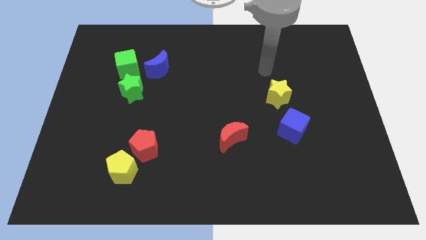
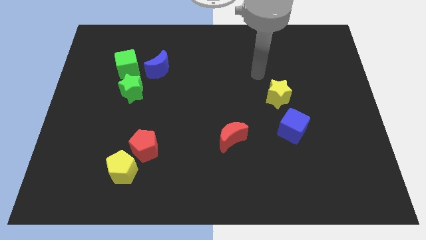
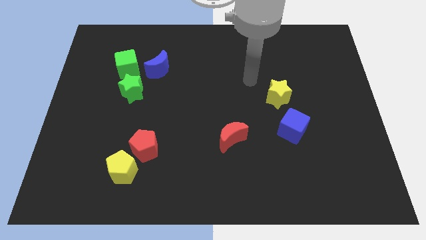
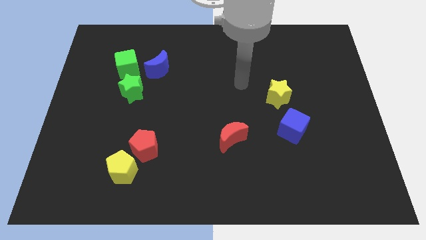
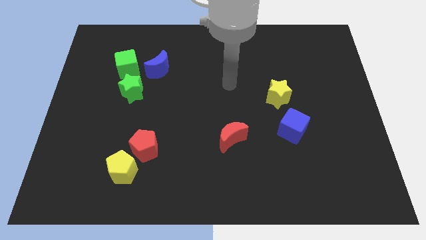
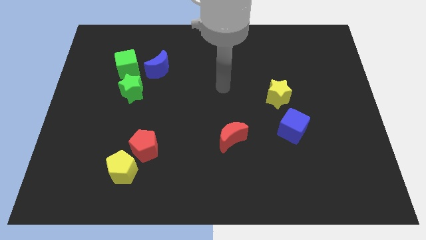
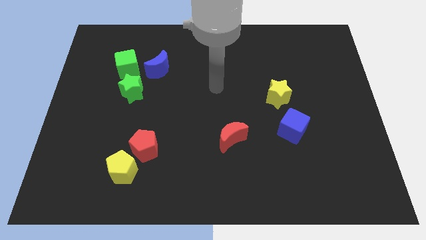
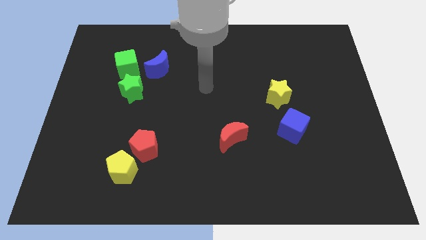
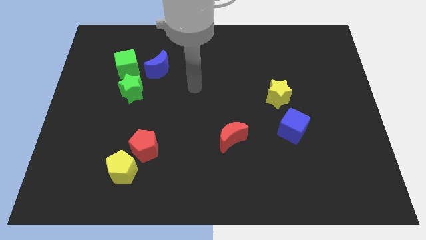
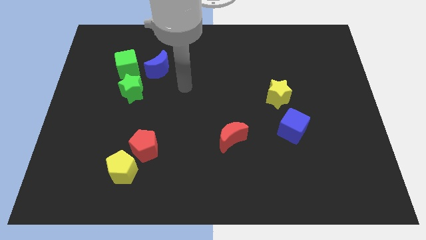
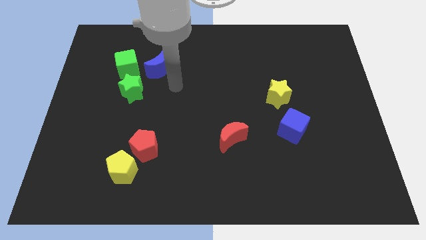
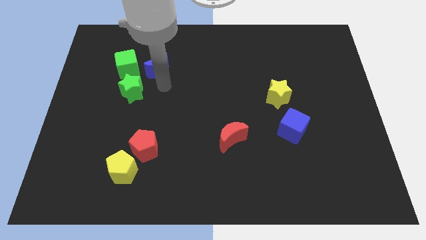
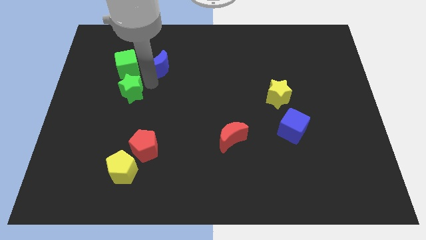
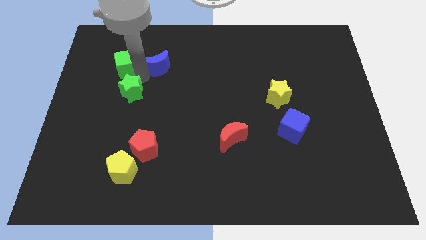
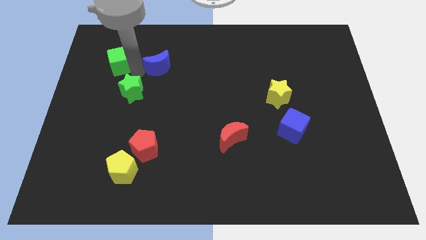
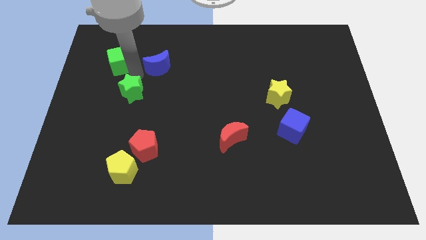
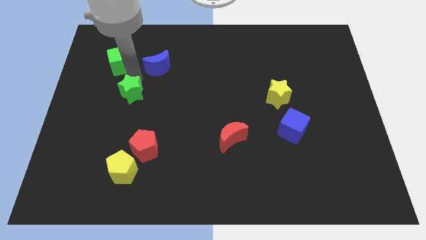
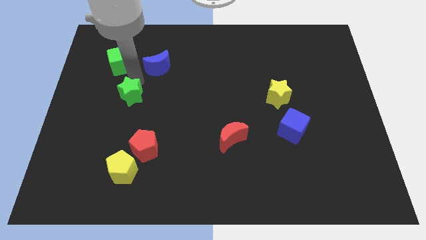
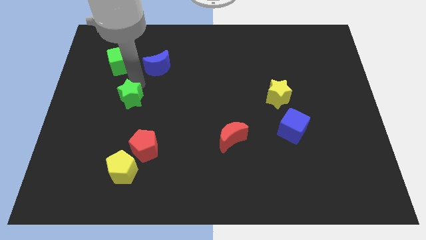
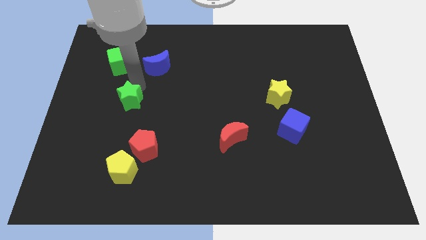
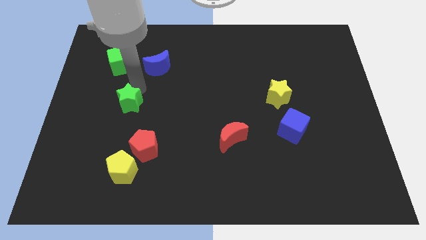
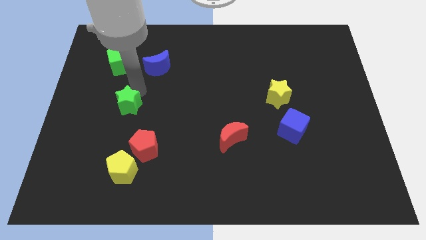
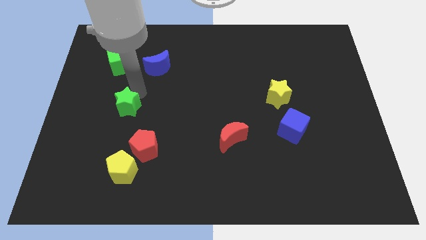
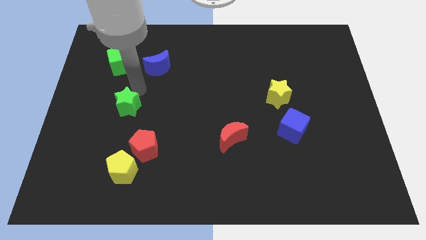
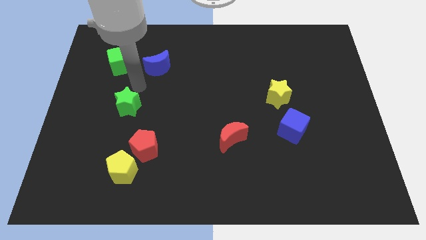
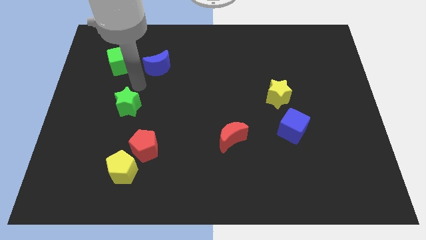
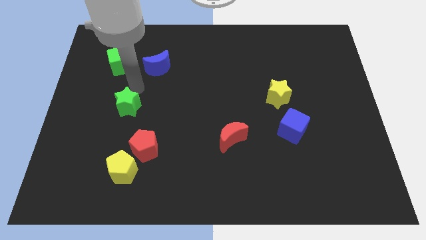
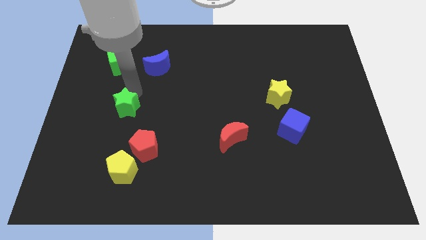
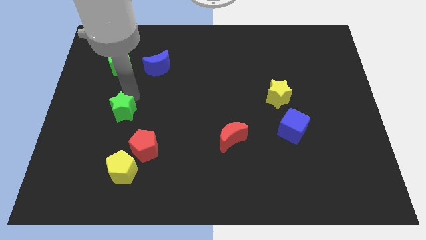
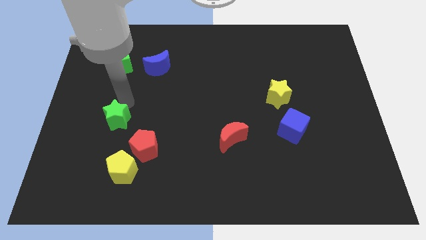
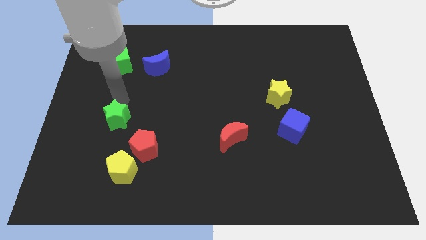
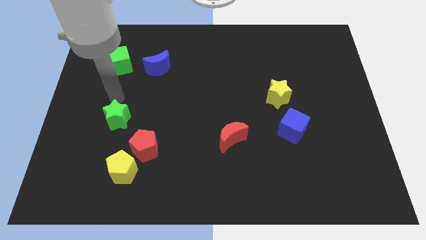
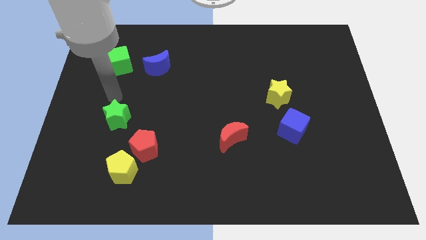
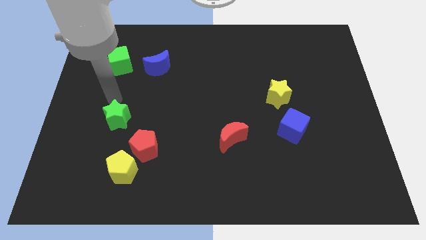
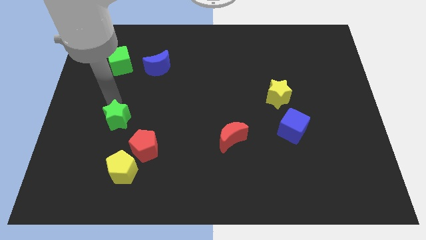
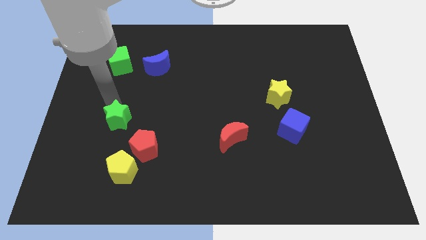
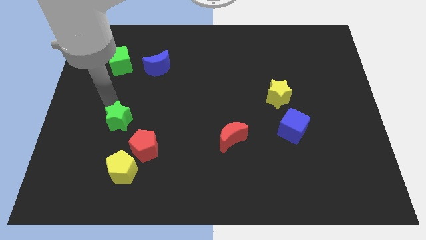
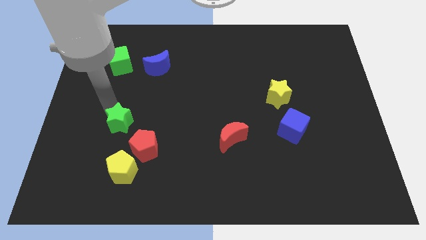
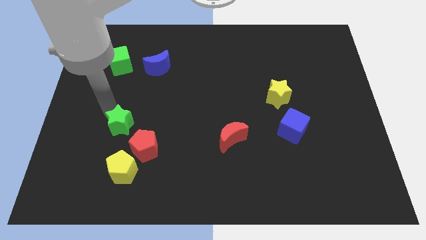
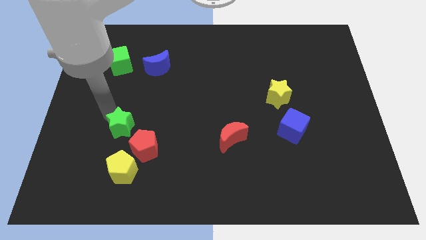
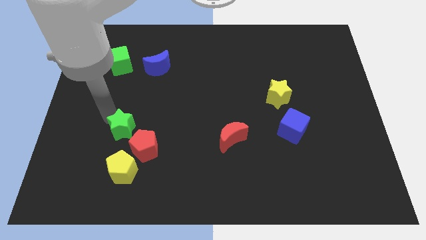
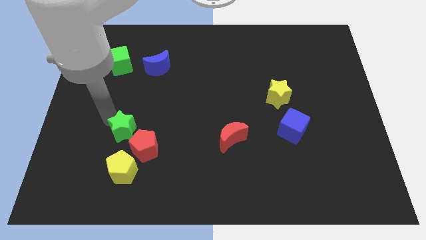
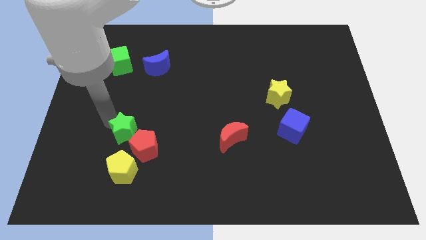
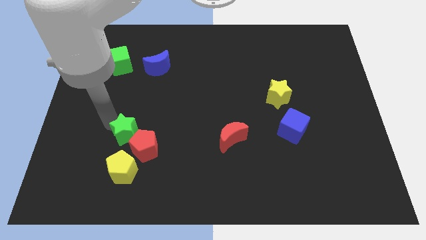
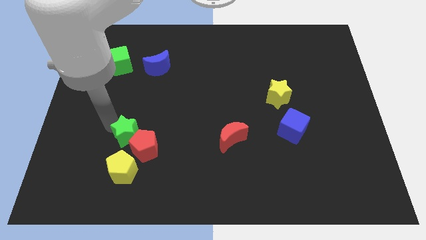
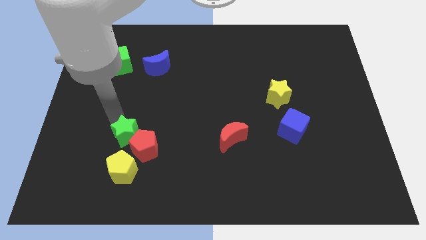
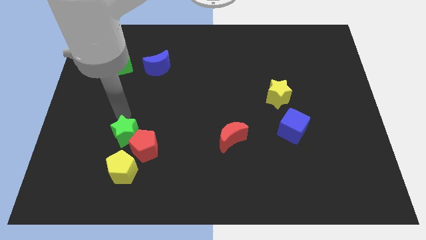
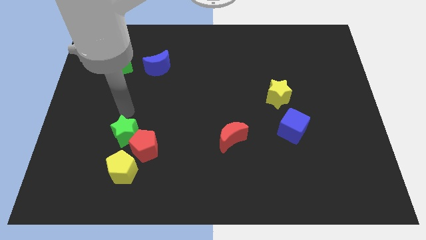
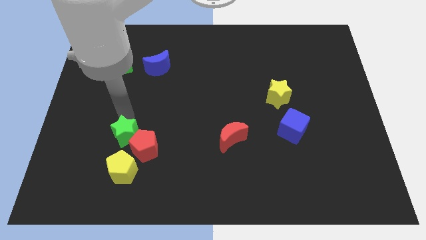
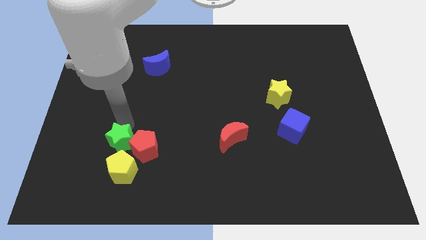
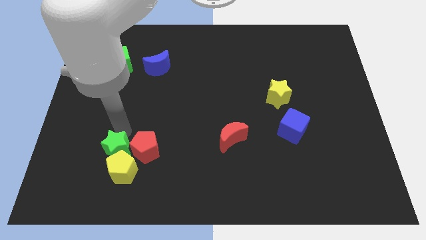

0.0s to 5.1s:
slide the green star close to the yellow pentagon

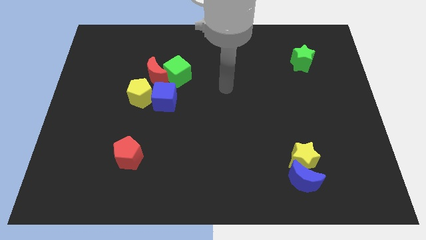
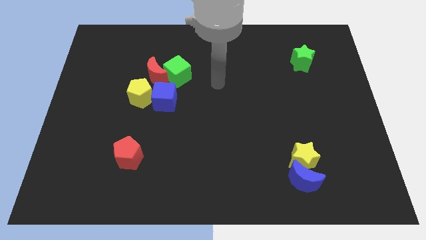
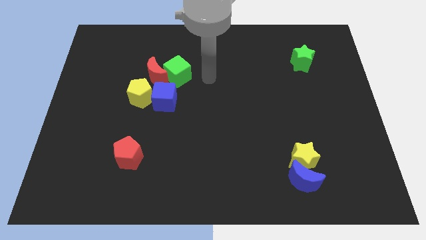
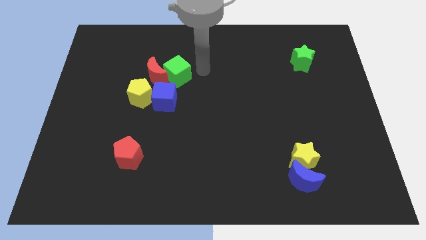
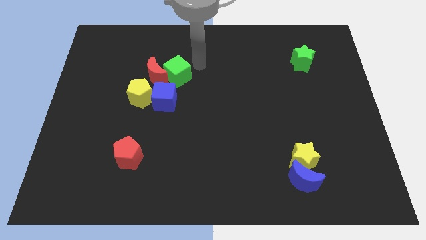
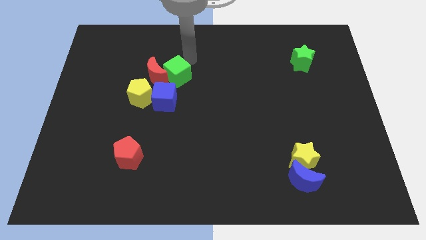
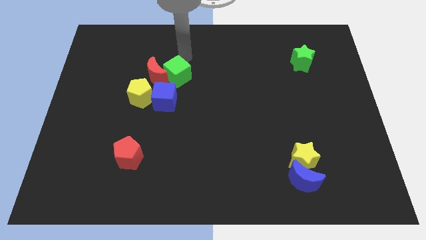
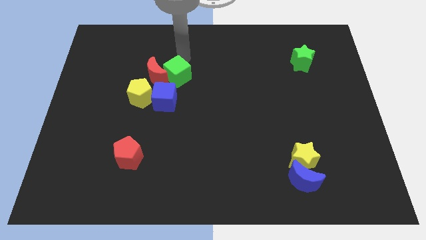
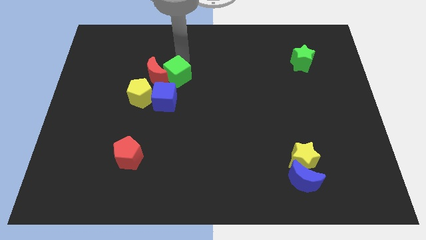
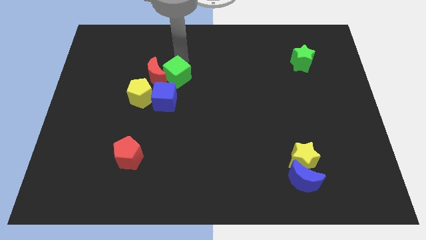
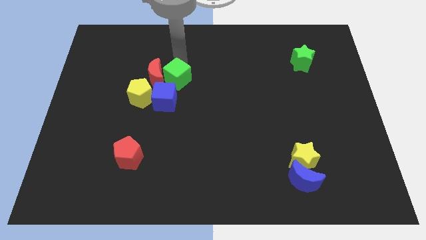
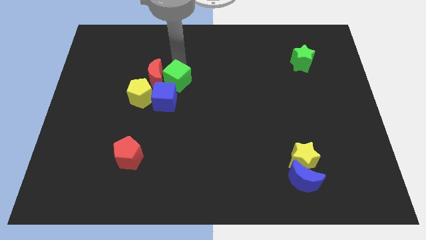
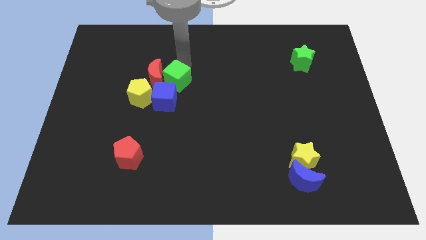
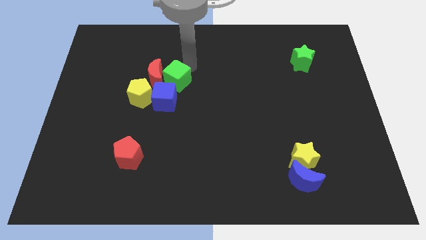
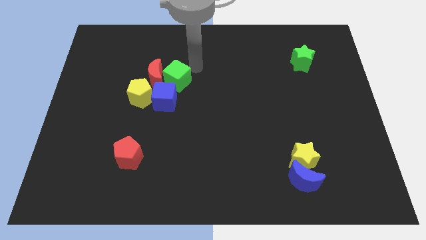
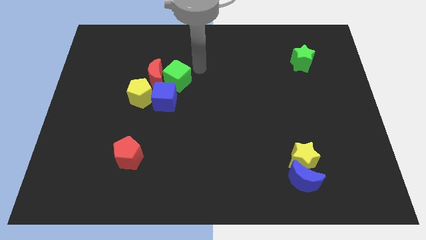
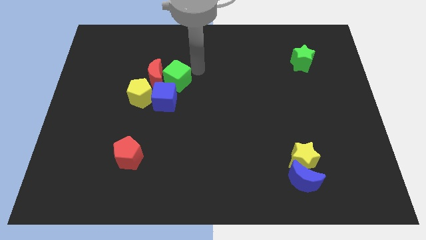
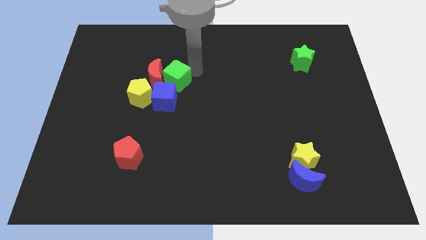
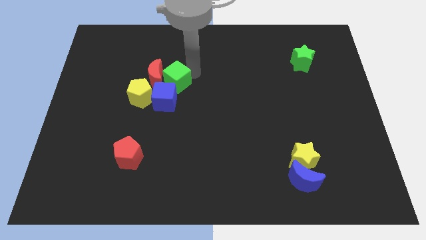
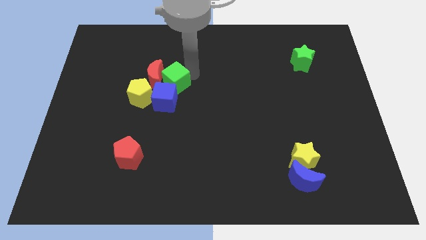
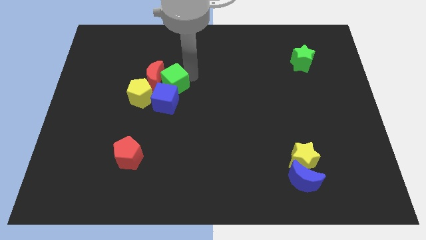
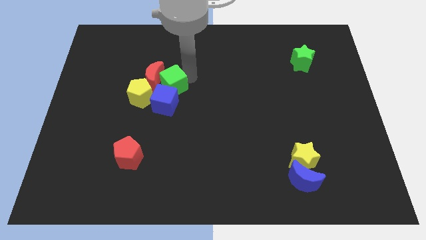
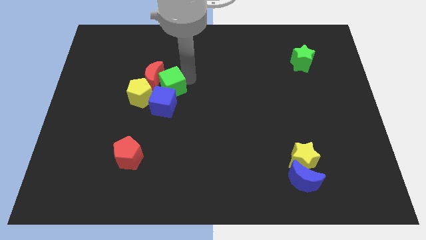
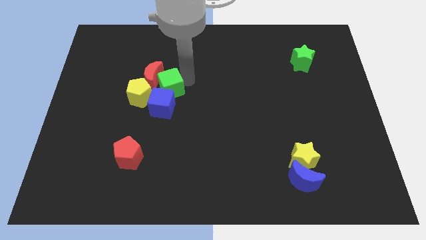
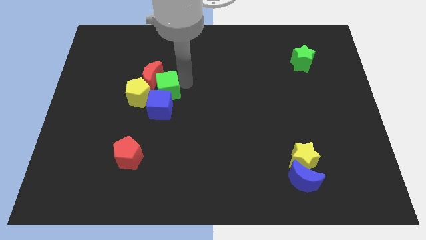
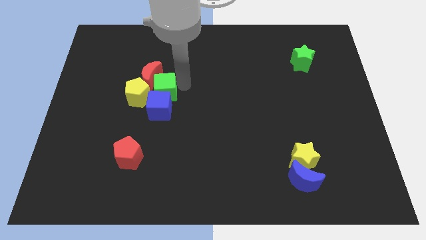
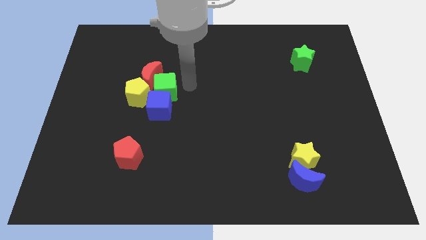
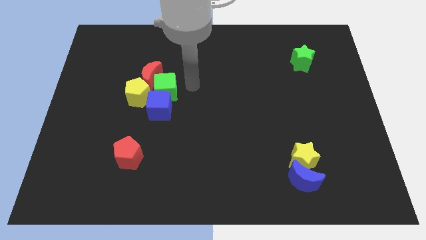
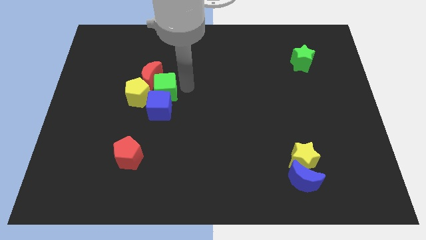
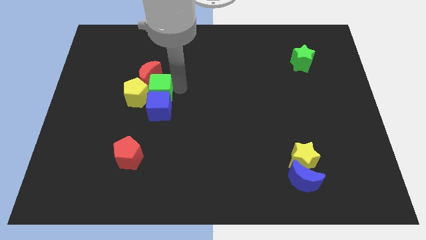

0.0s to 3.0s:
put the green cube close to the yellow pentagon
